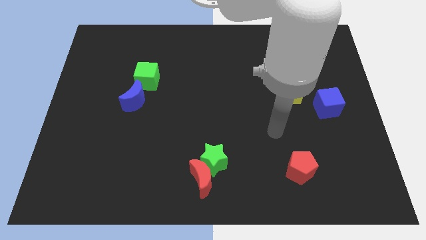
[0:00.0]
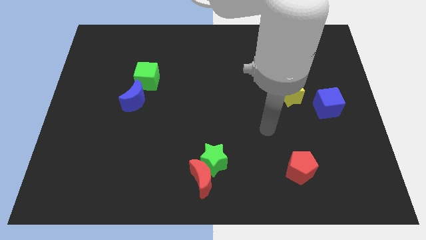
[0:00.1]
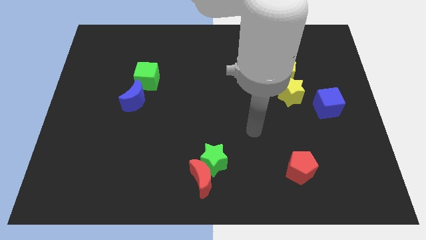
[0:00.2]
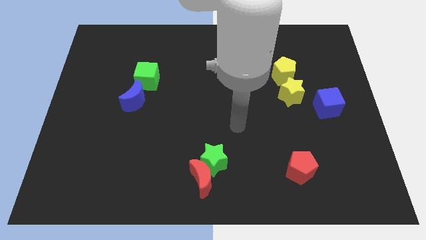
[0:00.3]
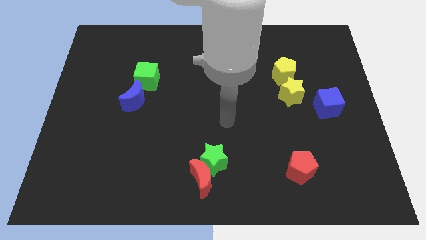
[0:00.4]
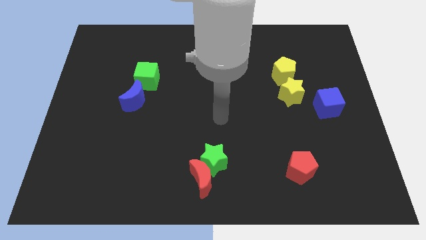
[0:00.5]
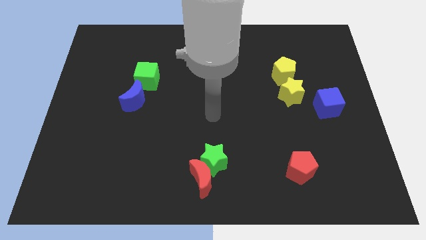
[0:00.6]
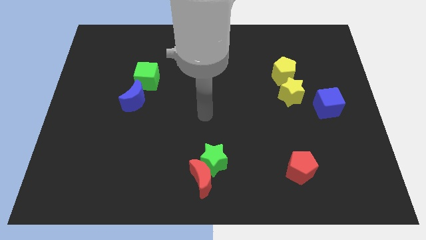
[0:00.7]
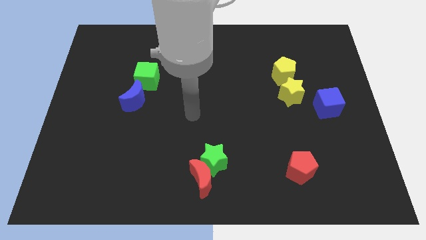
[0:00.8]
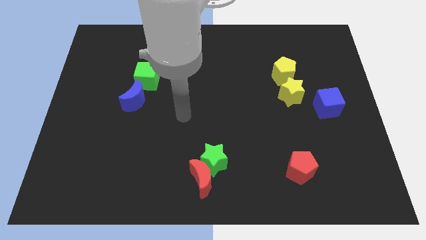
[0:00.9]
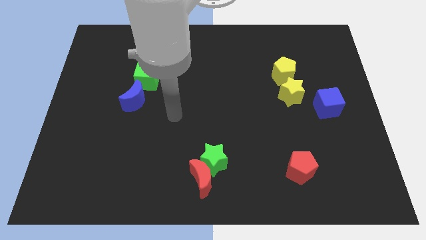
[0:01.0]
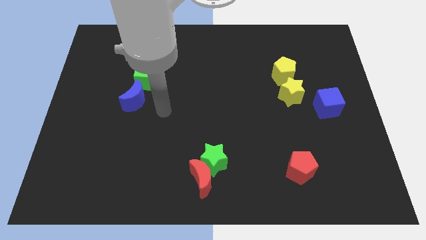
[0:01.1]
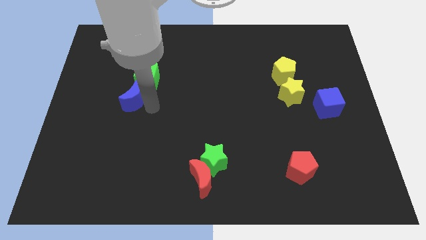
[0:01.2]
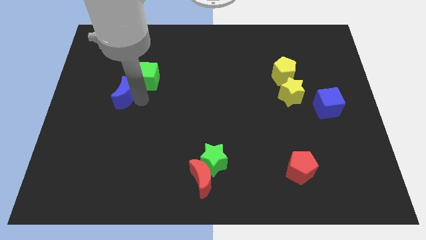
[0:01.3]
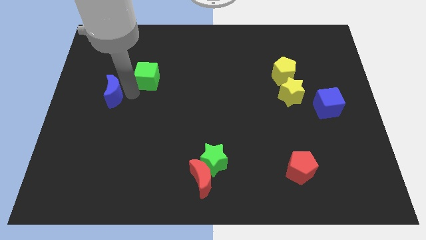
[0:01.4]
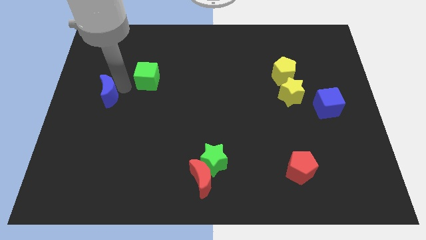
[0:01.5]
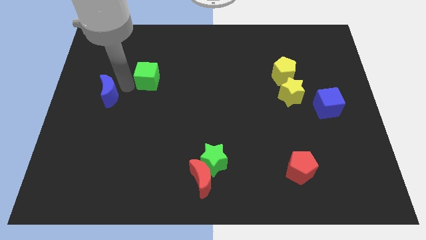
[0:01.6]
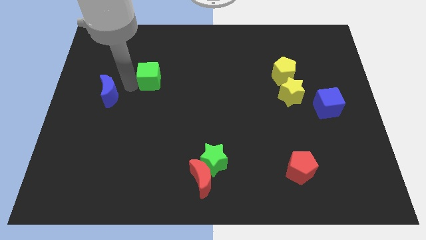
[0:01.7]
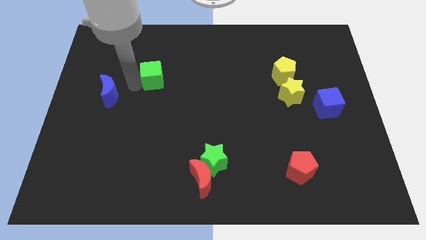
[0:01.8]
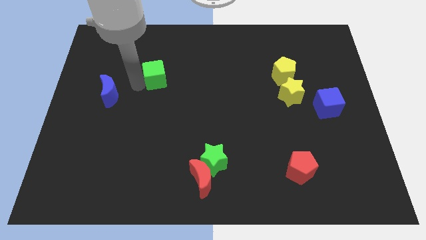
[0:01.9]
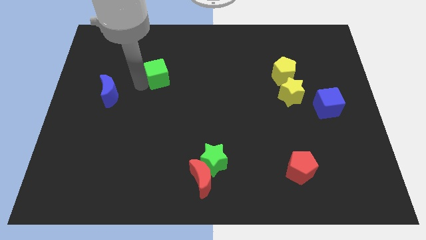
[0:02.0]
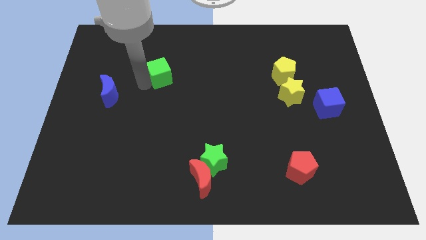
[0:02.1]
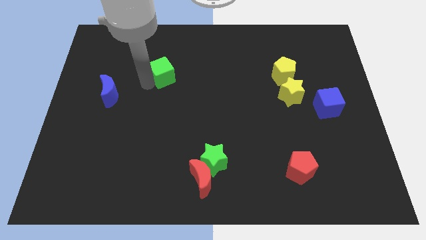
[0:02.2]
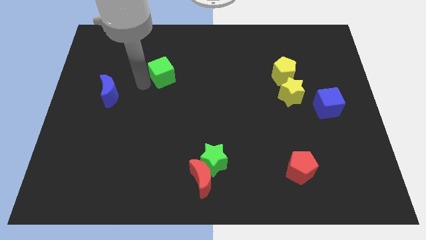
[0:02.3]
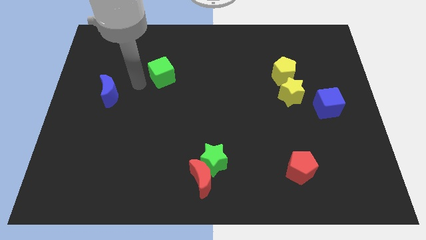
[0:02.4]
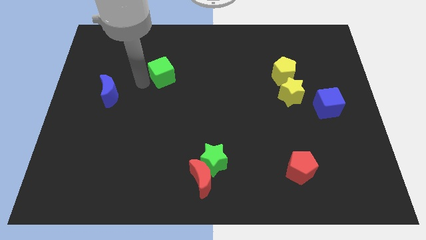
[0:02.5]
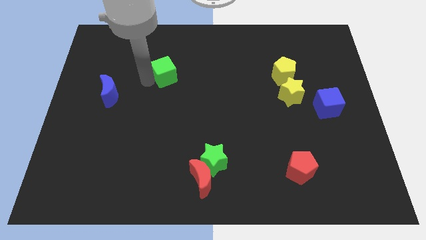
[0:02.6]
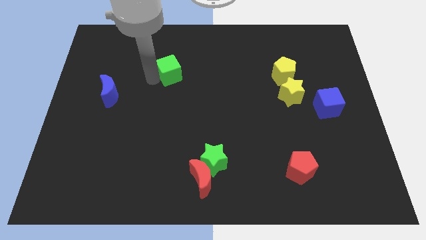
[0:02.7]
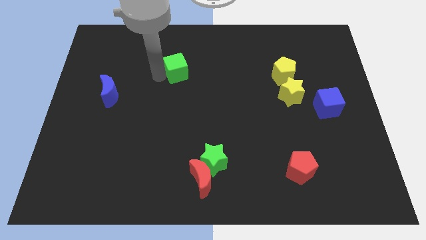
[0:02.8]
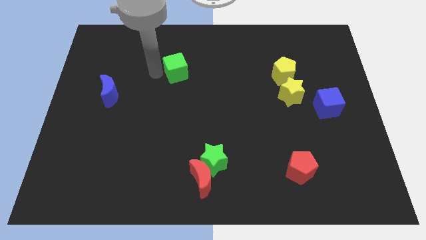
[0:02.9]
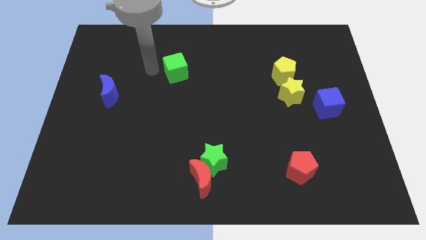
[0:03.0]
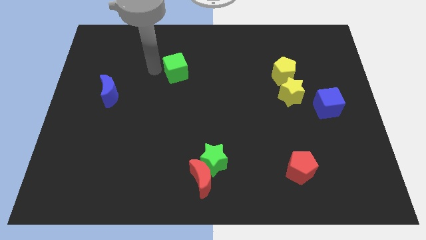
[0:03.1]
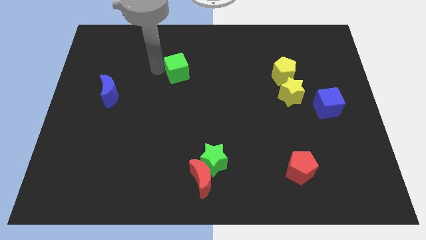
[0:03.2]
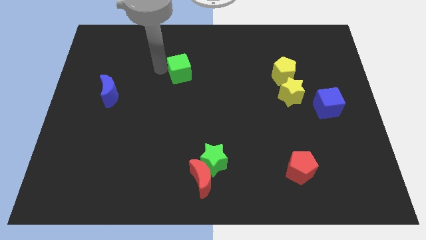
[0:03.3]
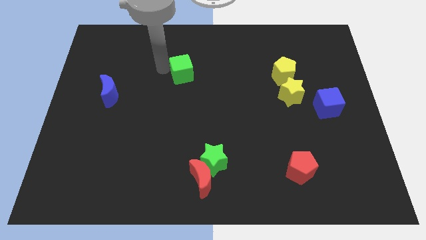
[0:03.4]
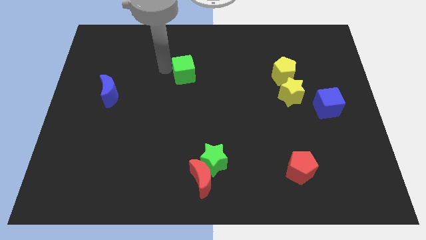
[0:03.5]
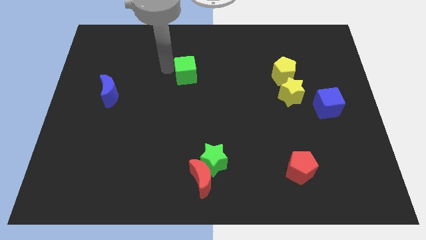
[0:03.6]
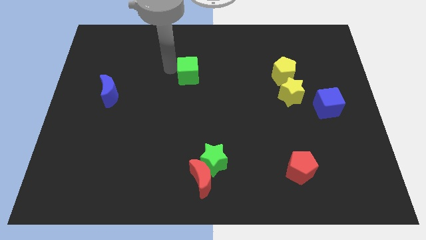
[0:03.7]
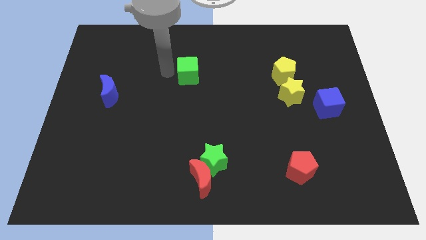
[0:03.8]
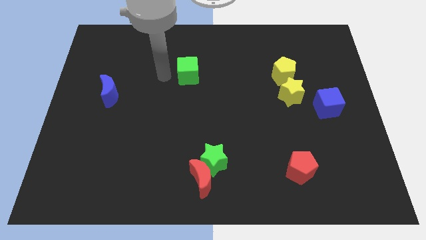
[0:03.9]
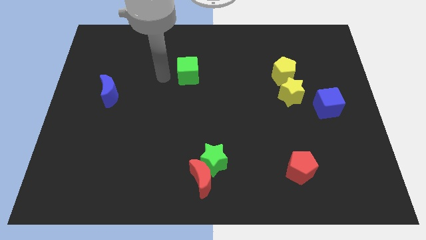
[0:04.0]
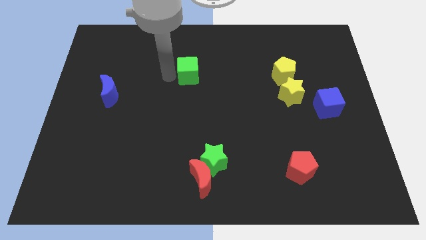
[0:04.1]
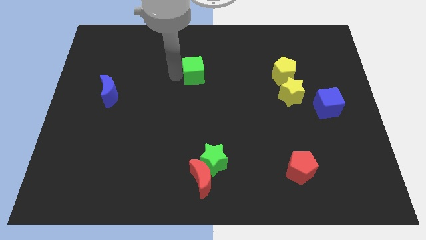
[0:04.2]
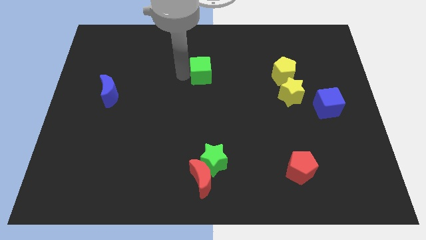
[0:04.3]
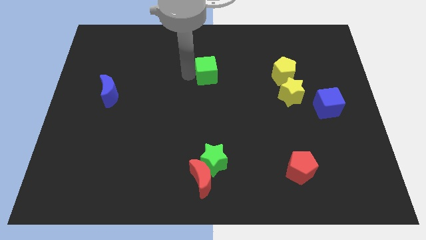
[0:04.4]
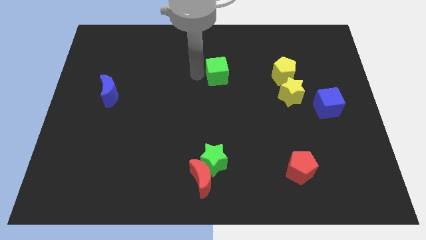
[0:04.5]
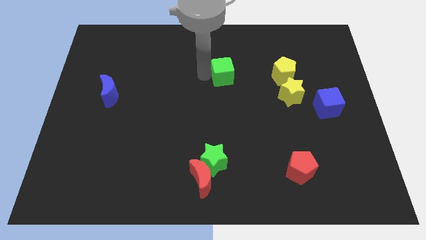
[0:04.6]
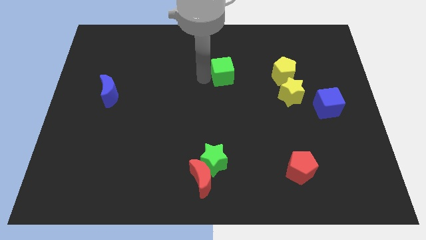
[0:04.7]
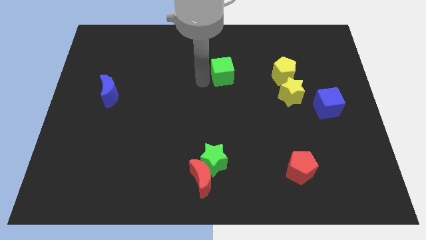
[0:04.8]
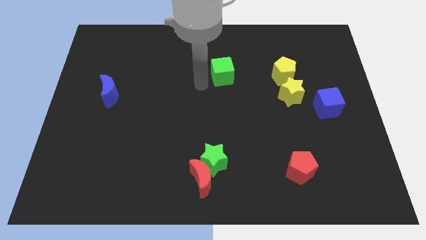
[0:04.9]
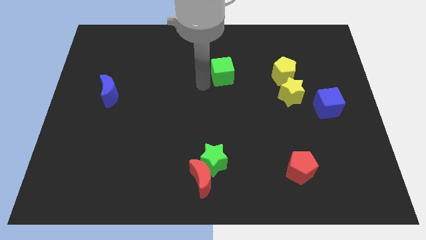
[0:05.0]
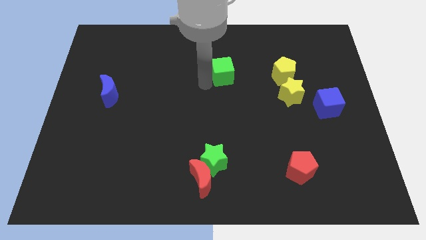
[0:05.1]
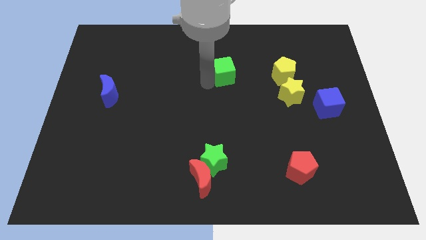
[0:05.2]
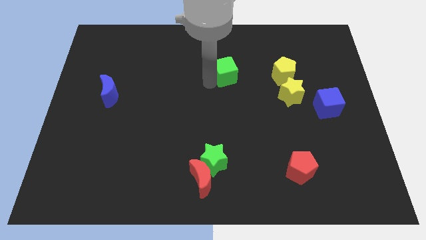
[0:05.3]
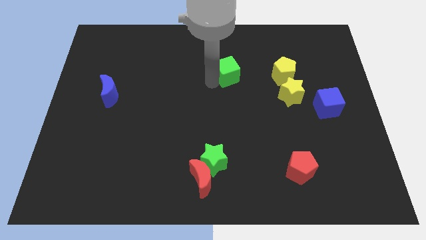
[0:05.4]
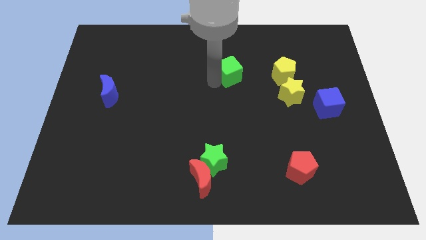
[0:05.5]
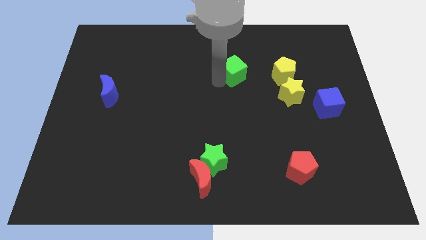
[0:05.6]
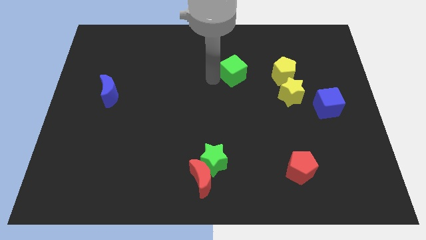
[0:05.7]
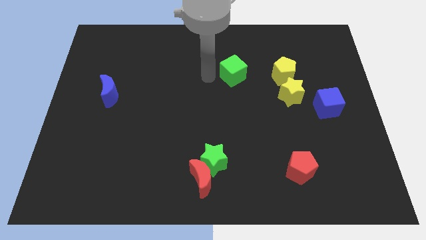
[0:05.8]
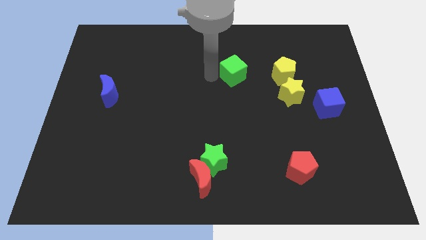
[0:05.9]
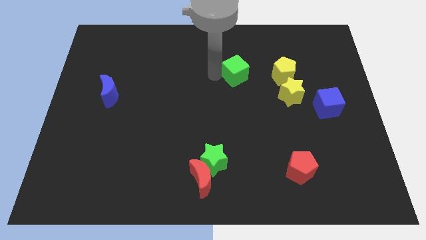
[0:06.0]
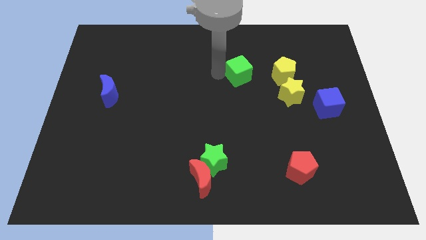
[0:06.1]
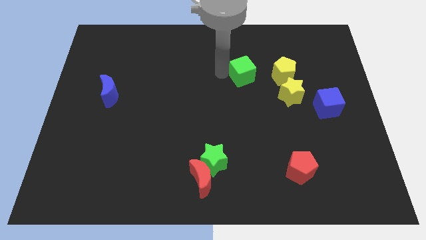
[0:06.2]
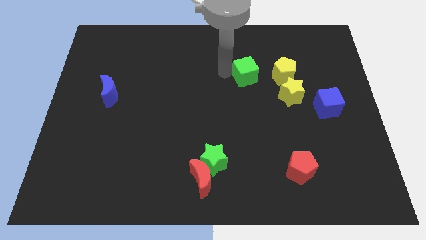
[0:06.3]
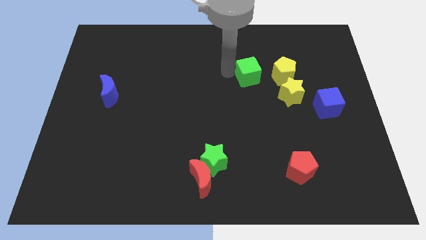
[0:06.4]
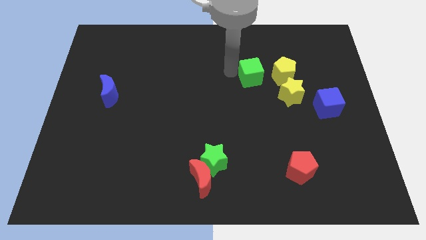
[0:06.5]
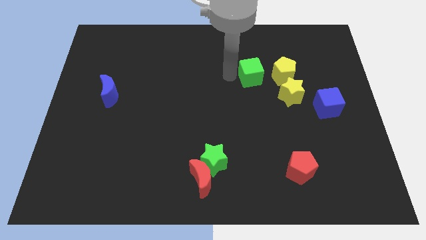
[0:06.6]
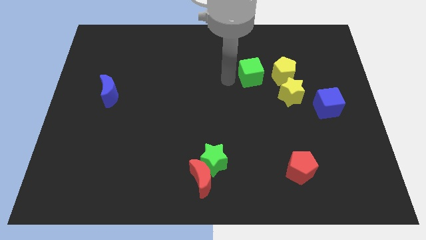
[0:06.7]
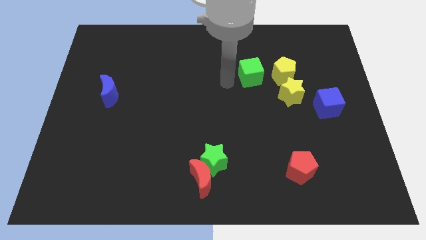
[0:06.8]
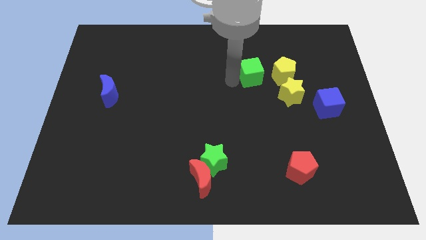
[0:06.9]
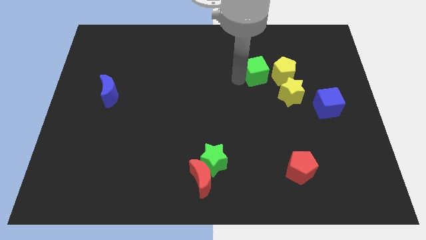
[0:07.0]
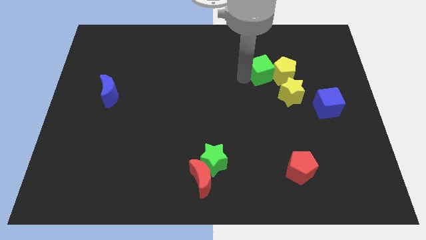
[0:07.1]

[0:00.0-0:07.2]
put the green cube towards the yellow pentagon

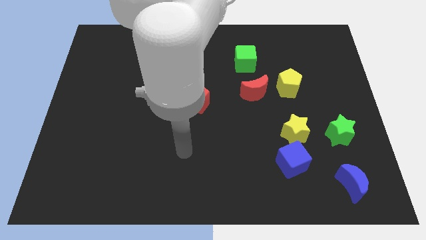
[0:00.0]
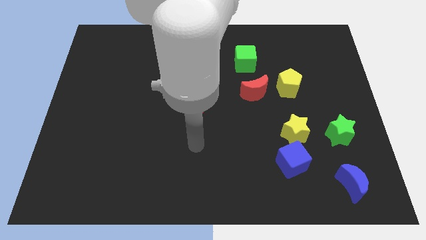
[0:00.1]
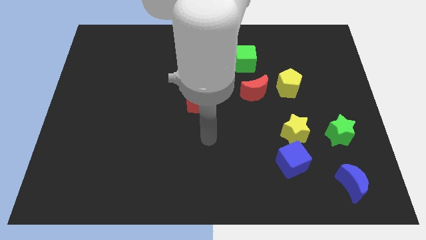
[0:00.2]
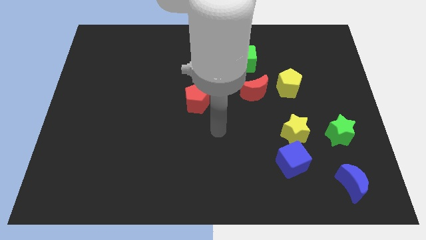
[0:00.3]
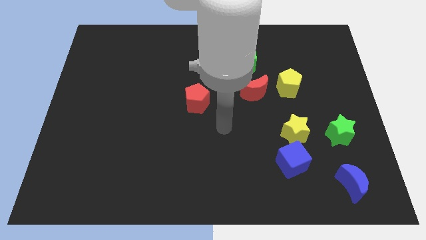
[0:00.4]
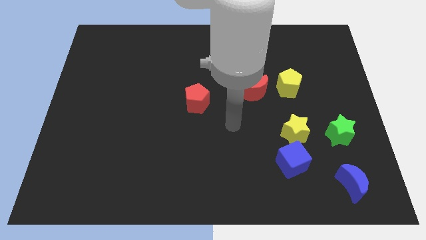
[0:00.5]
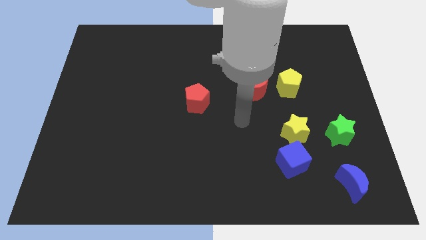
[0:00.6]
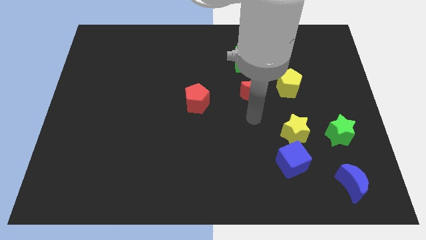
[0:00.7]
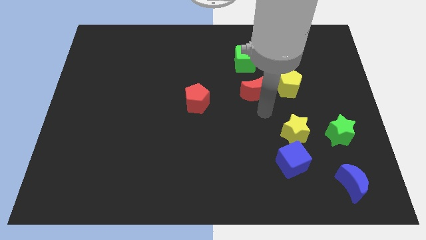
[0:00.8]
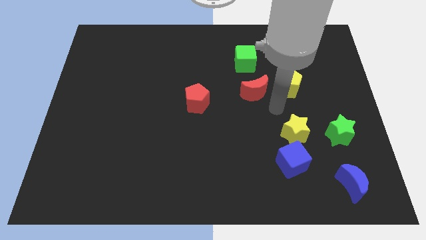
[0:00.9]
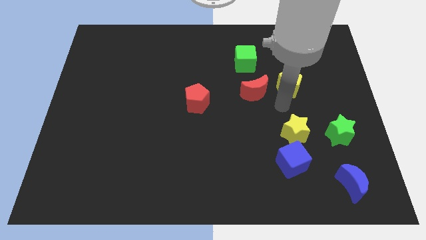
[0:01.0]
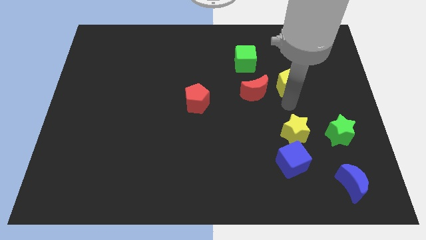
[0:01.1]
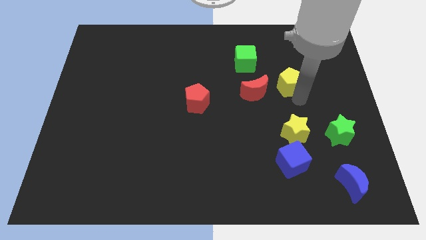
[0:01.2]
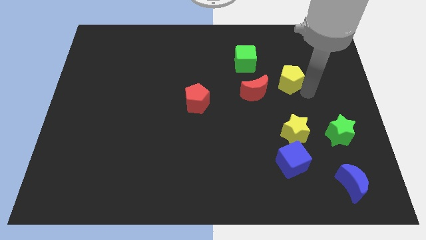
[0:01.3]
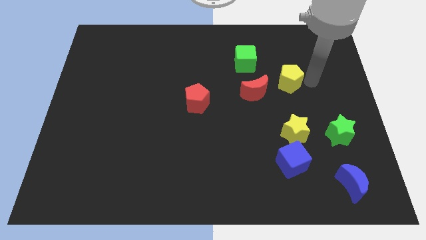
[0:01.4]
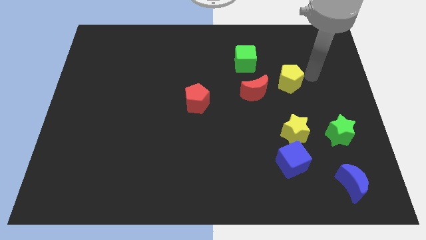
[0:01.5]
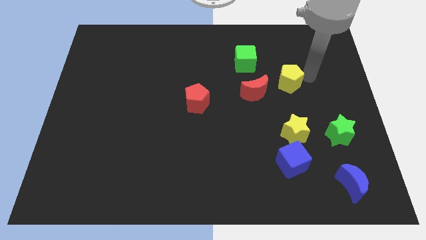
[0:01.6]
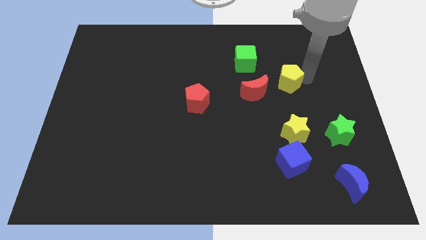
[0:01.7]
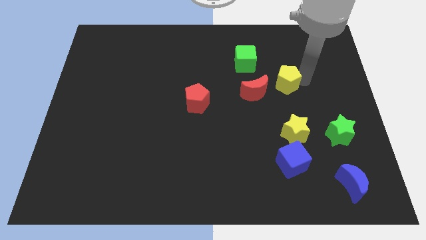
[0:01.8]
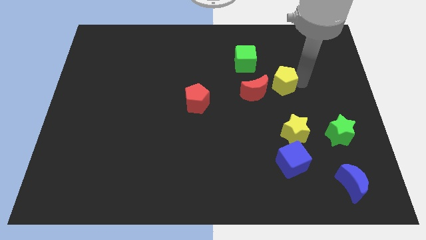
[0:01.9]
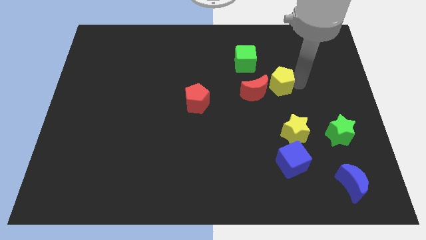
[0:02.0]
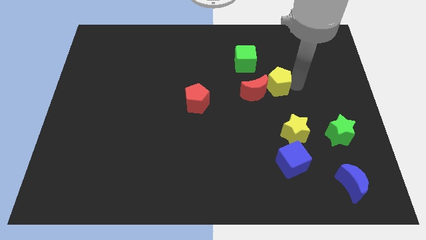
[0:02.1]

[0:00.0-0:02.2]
move the yellow pentagon to the red moon
